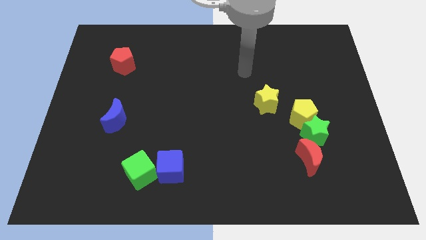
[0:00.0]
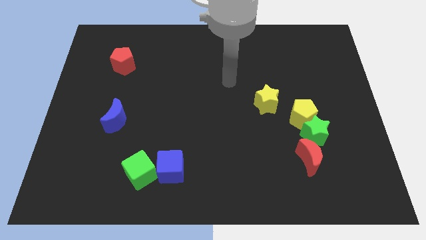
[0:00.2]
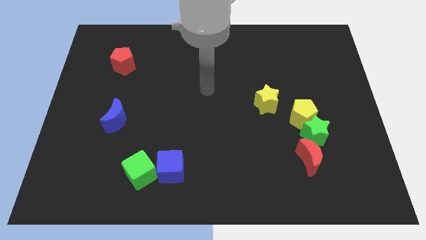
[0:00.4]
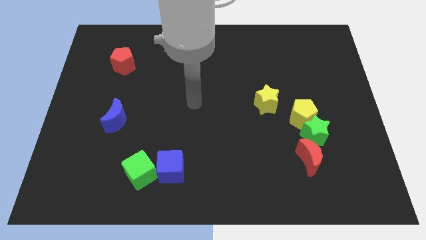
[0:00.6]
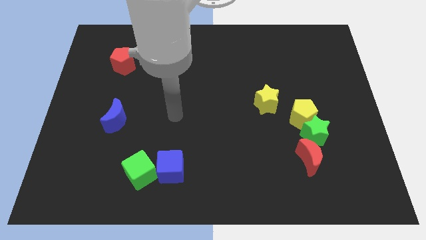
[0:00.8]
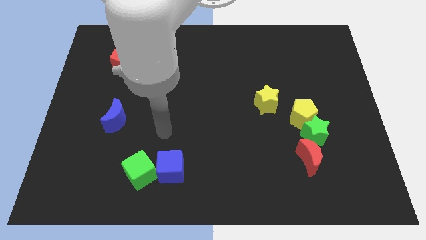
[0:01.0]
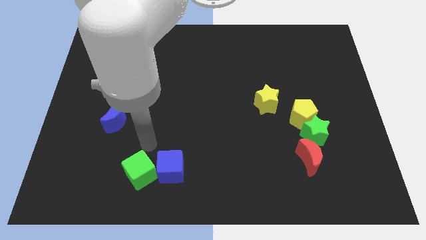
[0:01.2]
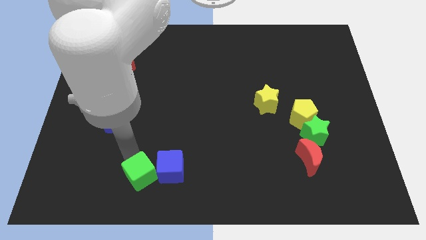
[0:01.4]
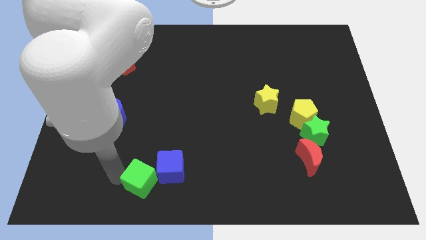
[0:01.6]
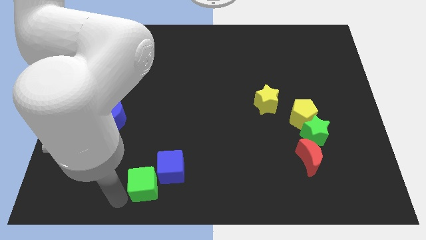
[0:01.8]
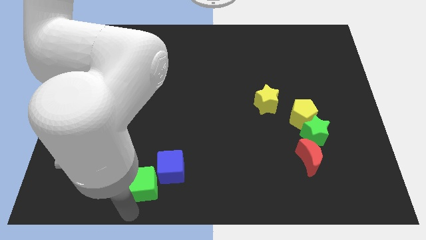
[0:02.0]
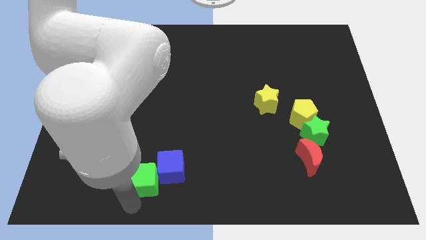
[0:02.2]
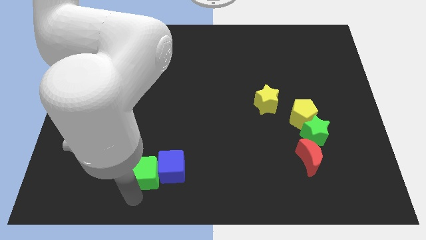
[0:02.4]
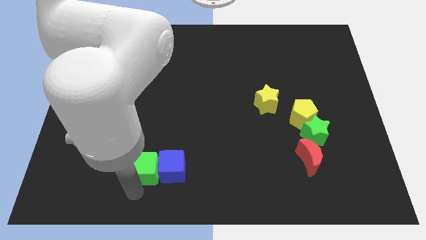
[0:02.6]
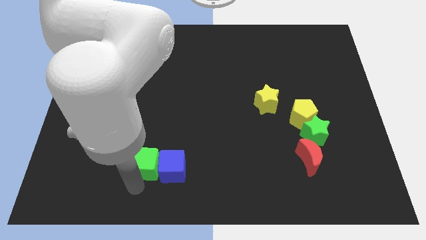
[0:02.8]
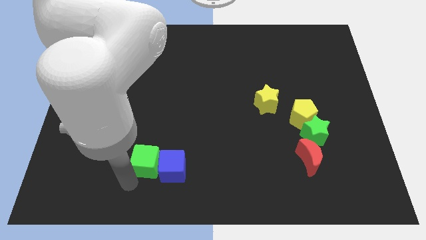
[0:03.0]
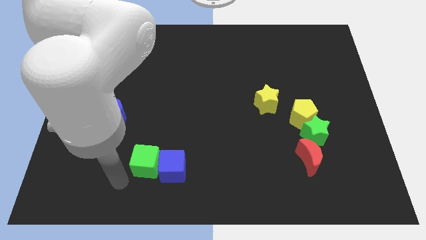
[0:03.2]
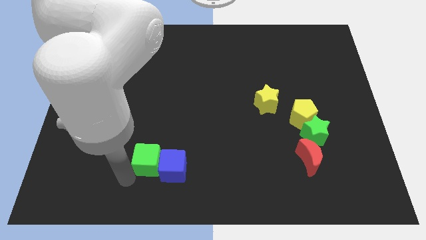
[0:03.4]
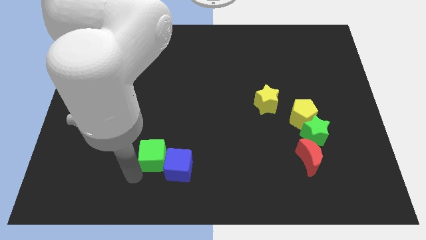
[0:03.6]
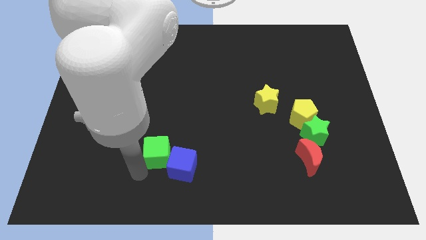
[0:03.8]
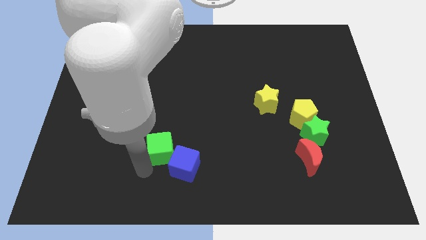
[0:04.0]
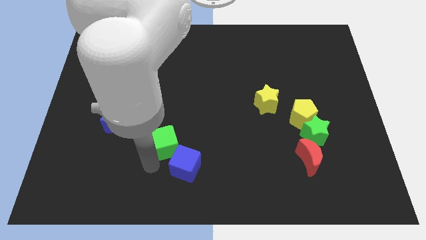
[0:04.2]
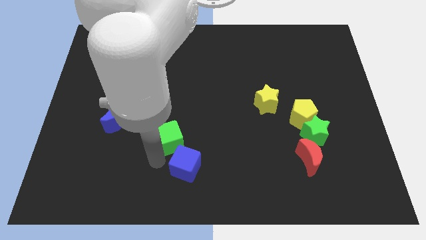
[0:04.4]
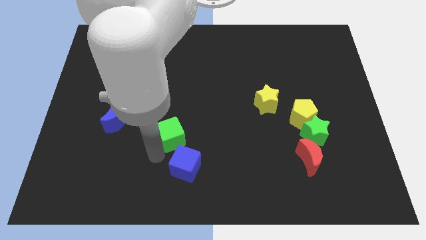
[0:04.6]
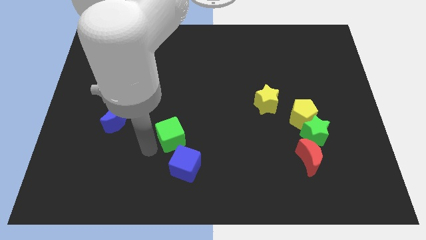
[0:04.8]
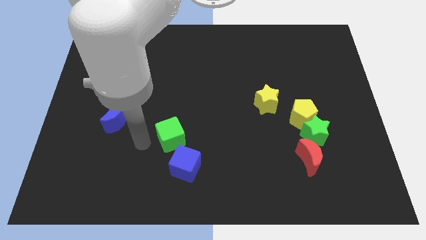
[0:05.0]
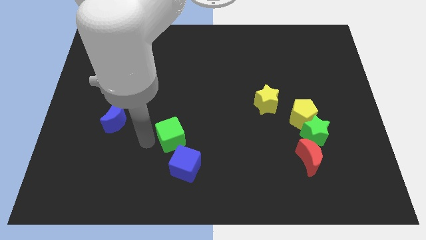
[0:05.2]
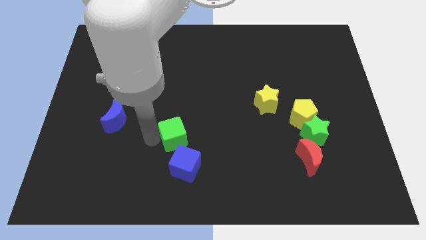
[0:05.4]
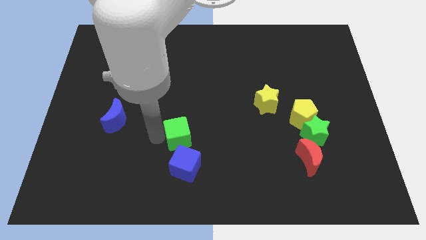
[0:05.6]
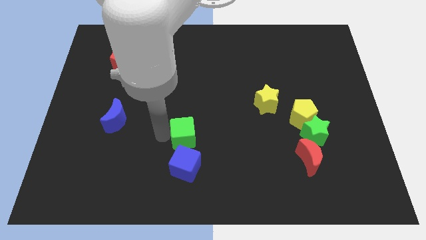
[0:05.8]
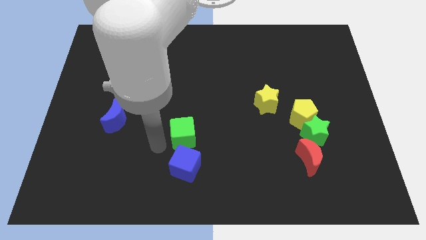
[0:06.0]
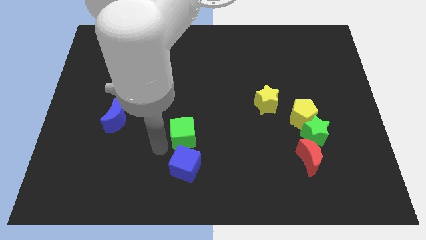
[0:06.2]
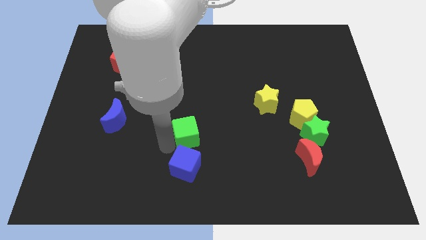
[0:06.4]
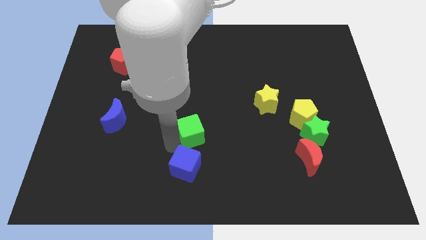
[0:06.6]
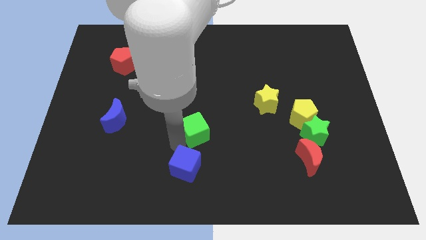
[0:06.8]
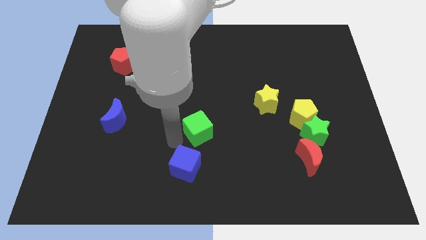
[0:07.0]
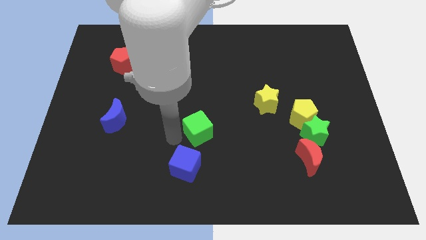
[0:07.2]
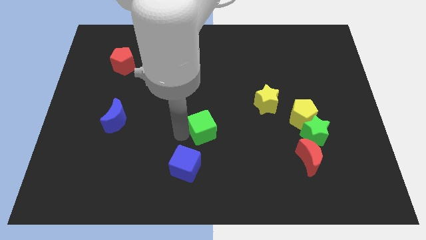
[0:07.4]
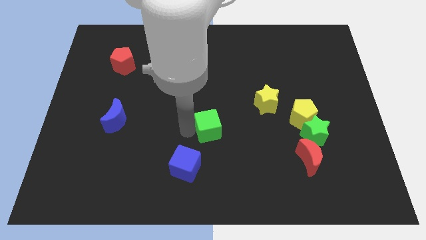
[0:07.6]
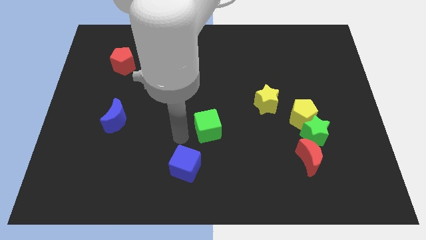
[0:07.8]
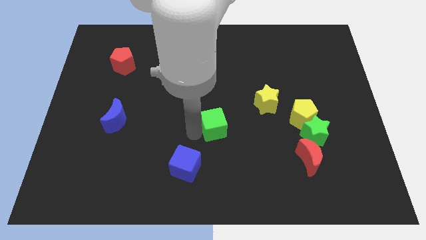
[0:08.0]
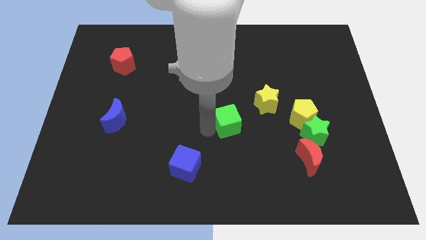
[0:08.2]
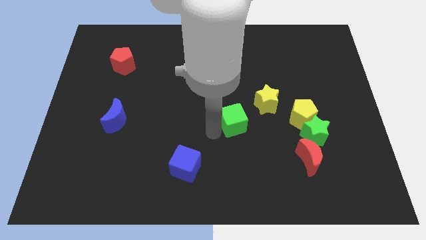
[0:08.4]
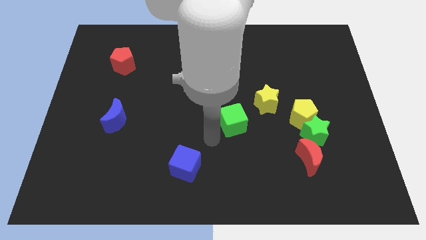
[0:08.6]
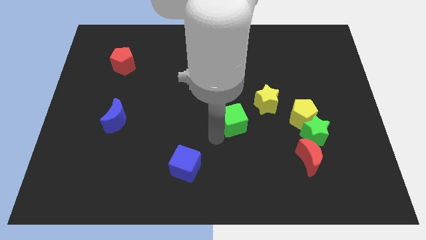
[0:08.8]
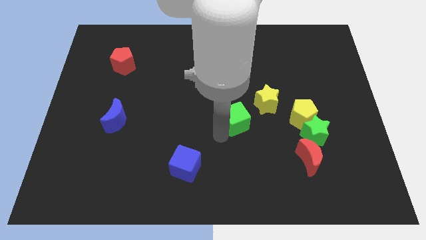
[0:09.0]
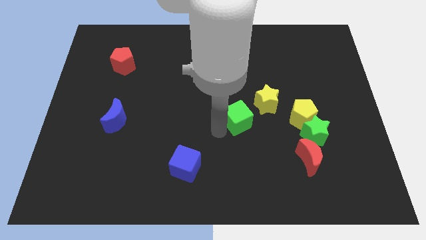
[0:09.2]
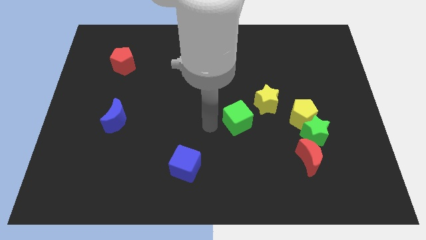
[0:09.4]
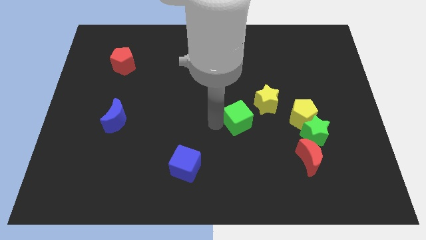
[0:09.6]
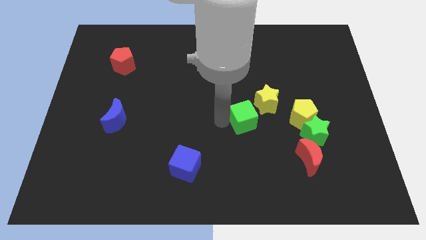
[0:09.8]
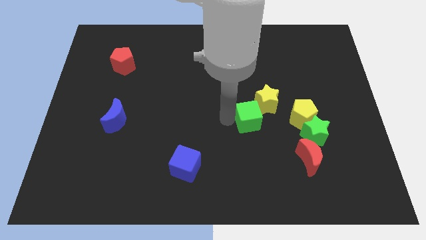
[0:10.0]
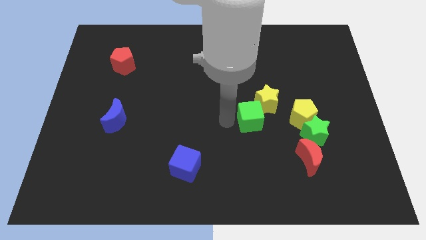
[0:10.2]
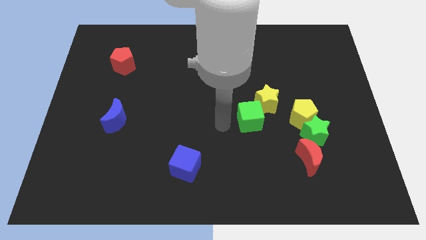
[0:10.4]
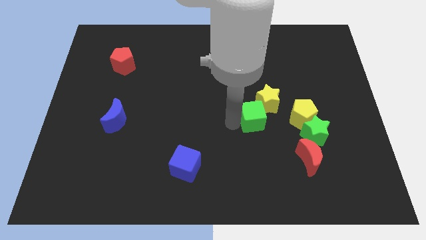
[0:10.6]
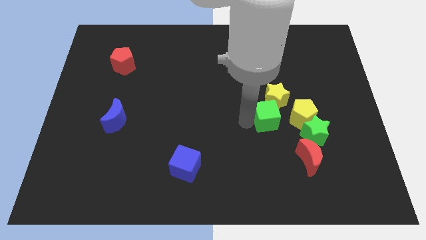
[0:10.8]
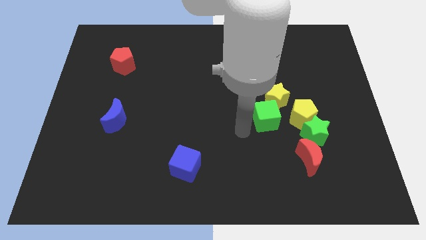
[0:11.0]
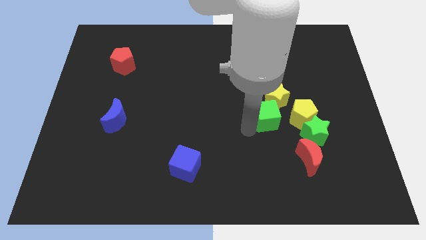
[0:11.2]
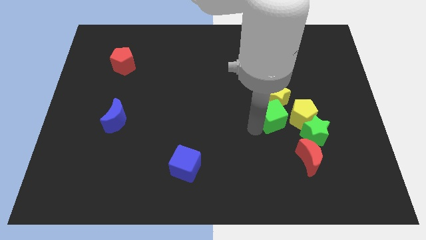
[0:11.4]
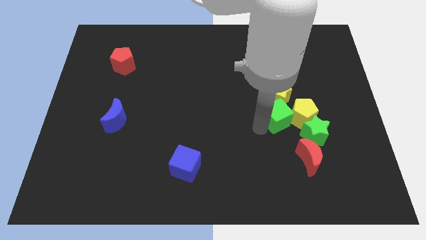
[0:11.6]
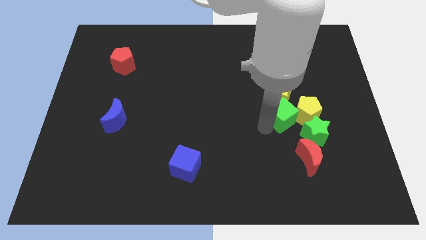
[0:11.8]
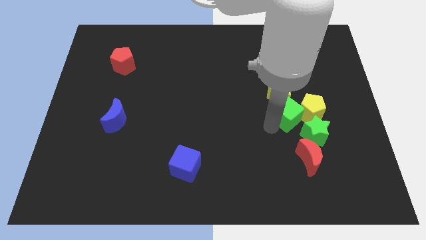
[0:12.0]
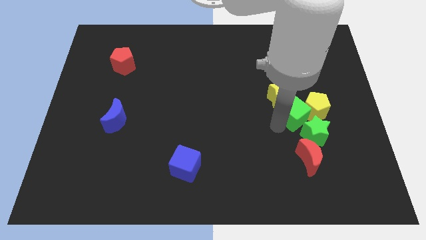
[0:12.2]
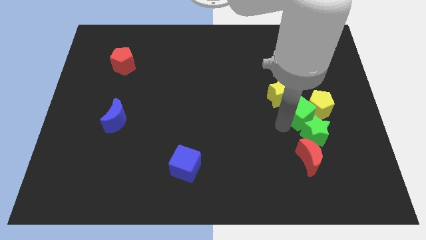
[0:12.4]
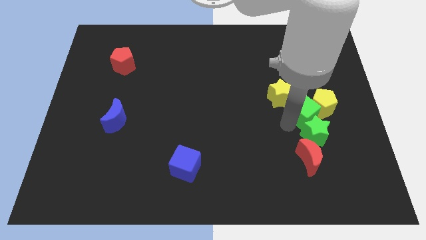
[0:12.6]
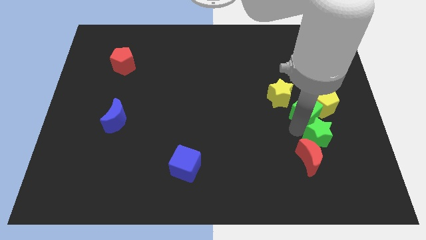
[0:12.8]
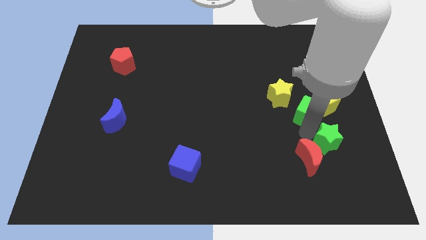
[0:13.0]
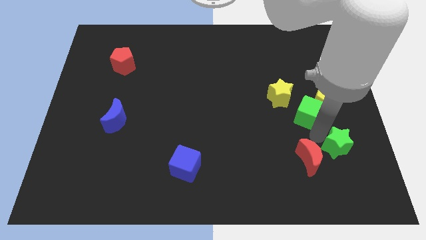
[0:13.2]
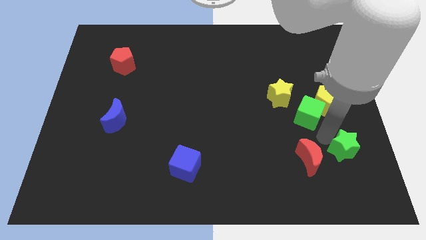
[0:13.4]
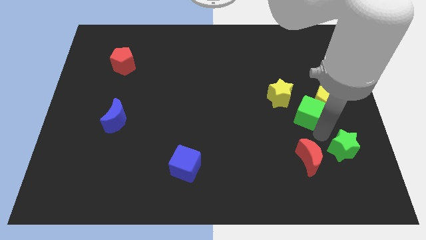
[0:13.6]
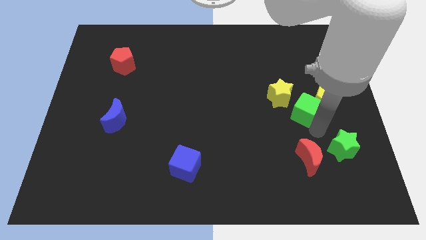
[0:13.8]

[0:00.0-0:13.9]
slide the green cube to the right side of the yellow star
